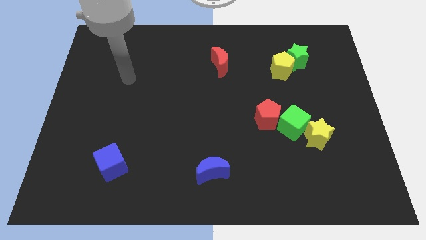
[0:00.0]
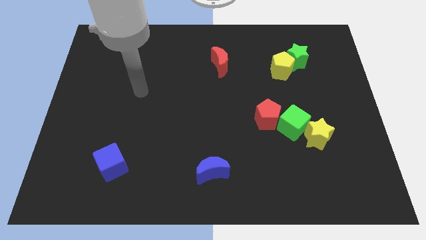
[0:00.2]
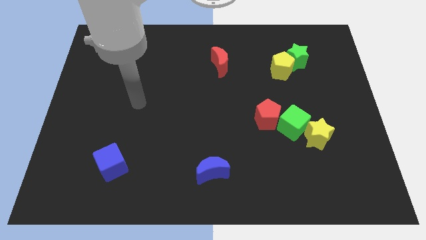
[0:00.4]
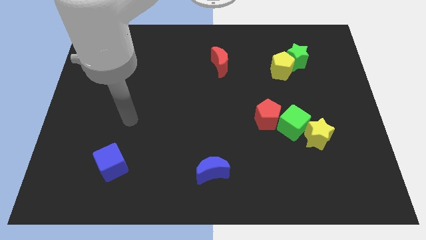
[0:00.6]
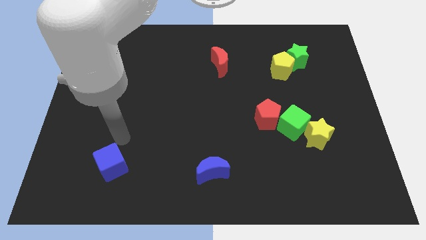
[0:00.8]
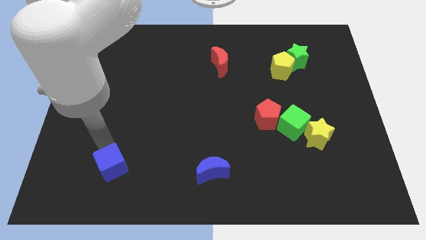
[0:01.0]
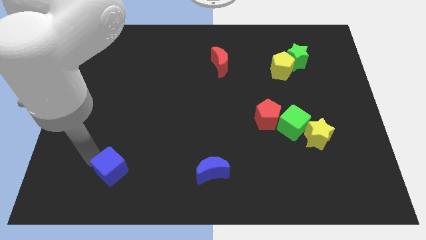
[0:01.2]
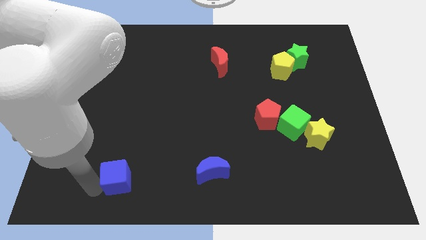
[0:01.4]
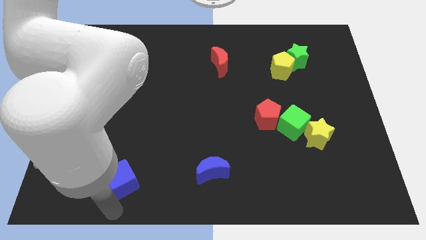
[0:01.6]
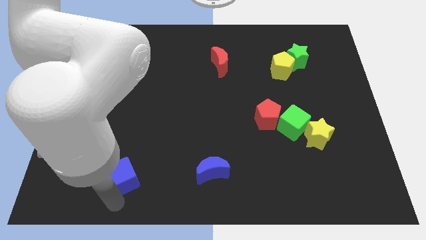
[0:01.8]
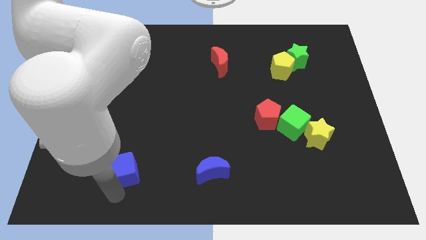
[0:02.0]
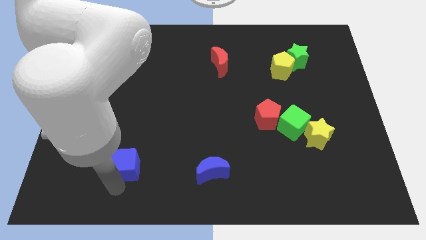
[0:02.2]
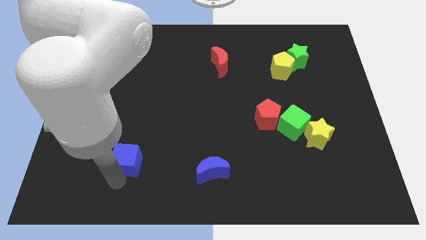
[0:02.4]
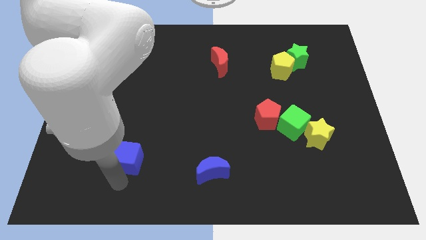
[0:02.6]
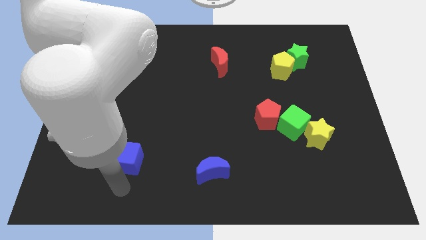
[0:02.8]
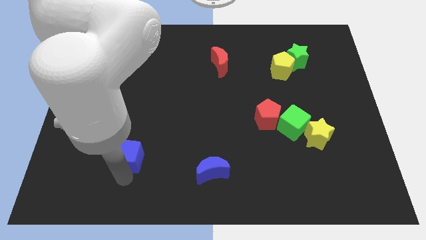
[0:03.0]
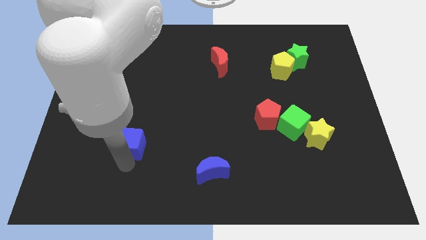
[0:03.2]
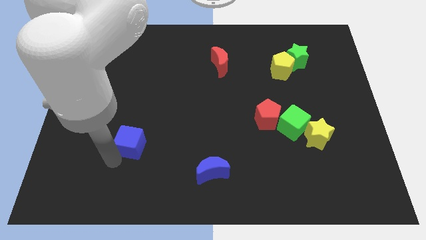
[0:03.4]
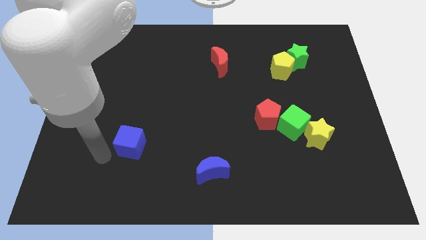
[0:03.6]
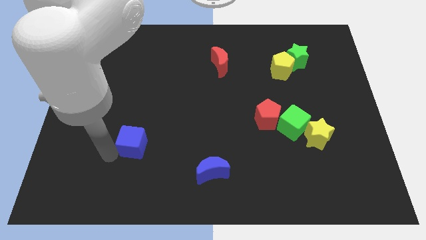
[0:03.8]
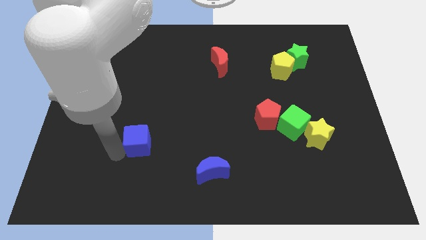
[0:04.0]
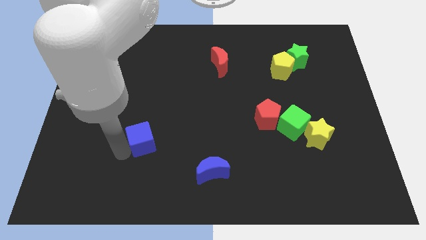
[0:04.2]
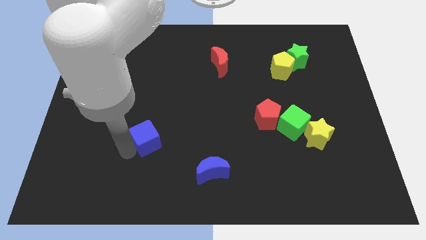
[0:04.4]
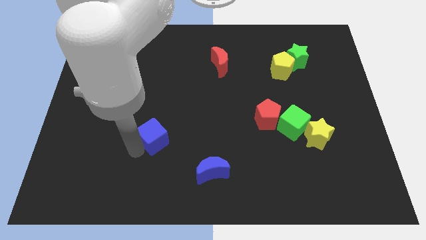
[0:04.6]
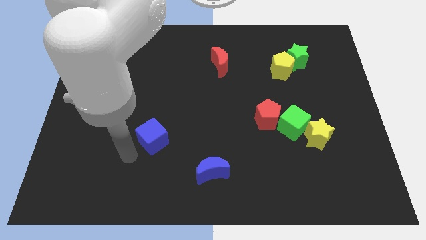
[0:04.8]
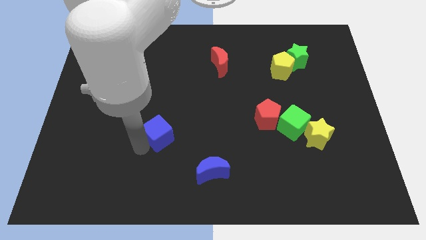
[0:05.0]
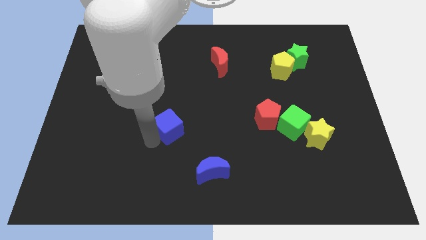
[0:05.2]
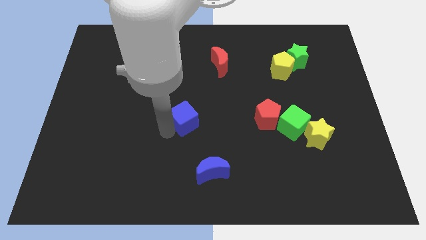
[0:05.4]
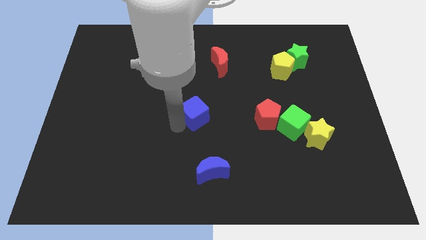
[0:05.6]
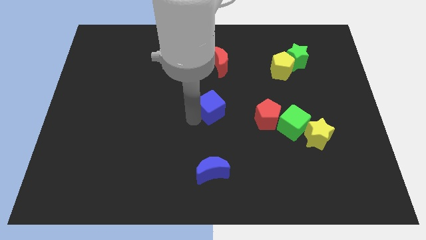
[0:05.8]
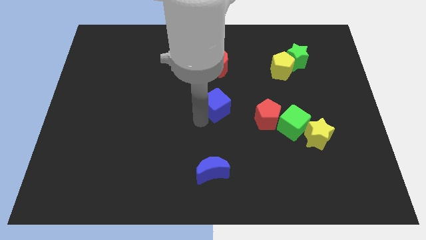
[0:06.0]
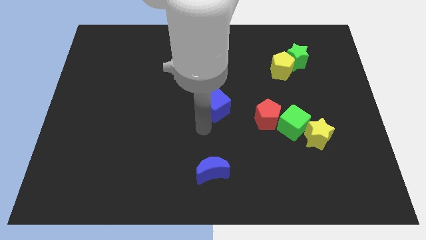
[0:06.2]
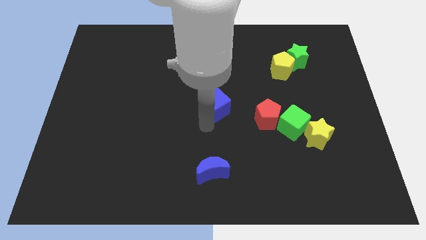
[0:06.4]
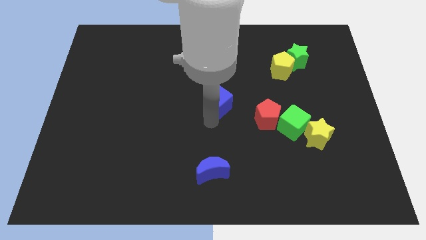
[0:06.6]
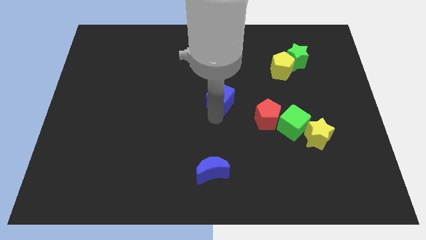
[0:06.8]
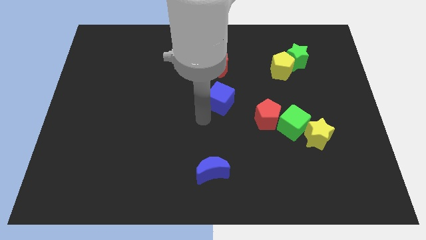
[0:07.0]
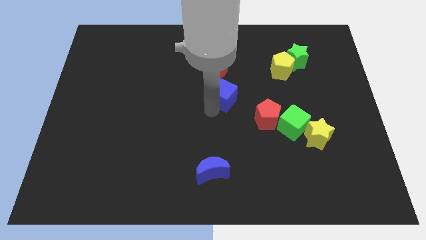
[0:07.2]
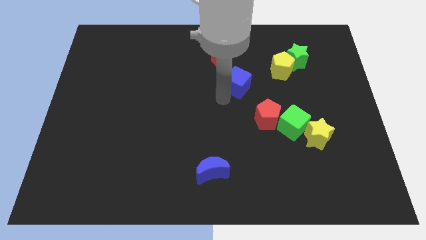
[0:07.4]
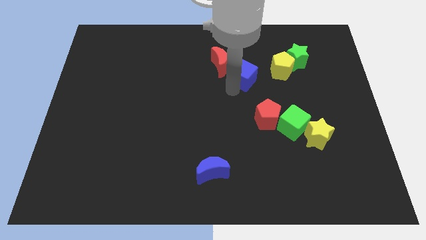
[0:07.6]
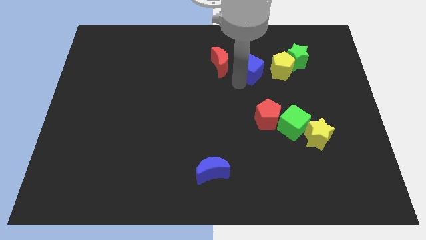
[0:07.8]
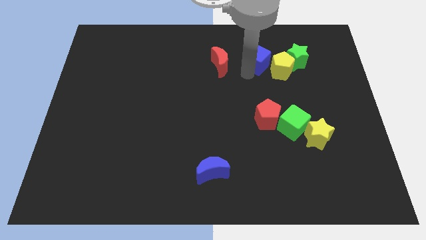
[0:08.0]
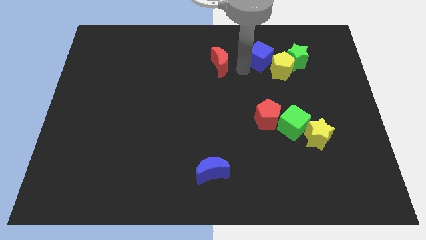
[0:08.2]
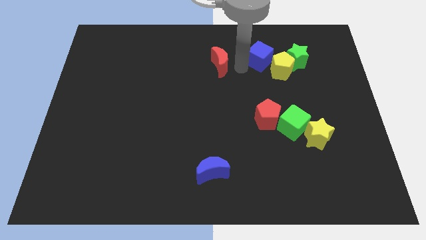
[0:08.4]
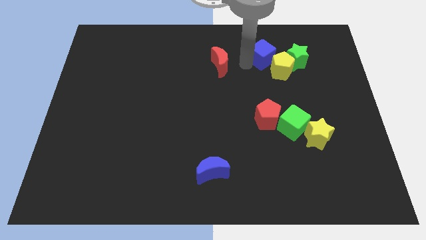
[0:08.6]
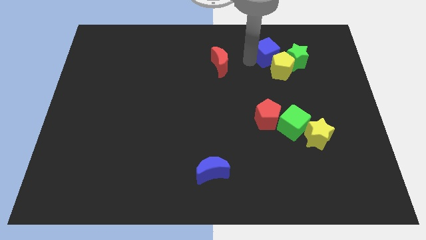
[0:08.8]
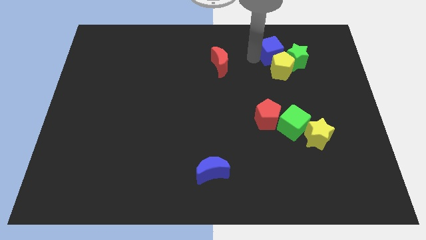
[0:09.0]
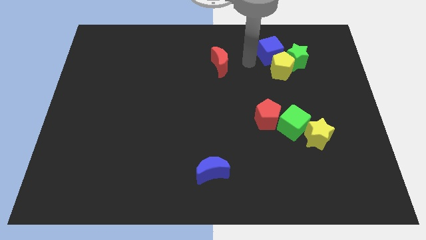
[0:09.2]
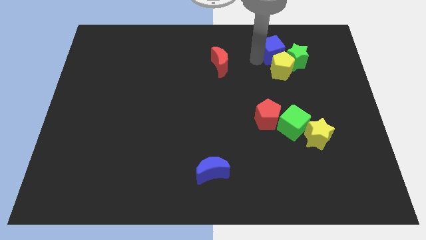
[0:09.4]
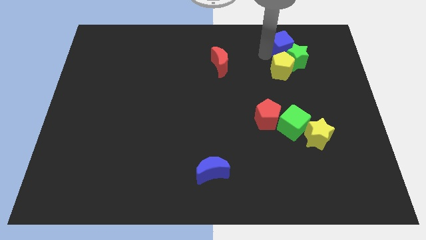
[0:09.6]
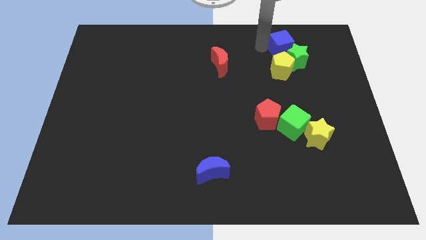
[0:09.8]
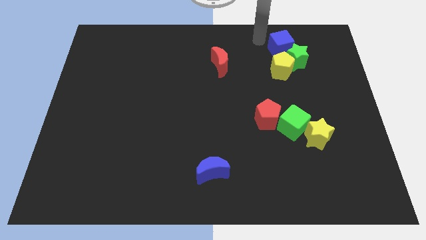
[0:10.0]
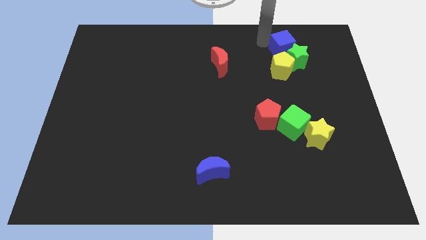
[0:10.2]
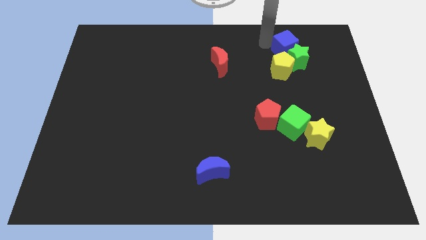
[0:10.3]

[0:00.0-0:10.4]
slide the blue cube diagonally up and to the right of the yellow pentagon

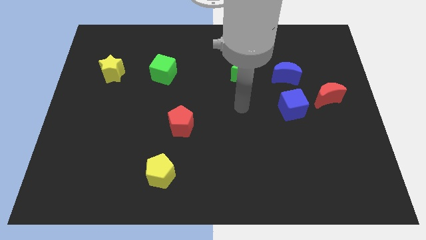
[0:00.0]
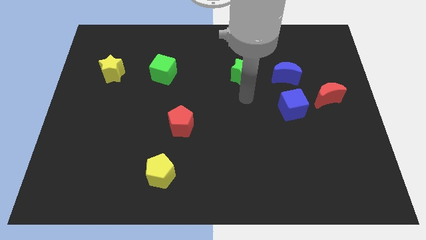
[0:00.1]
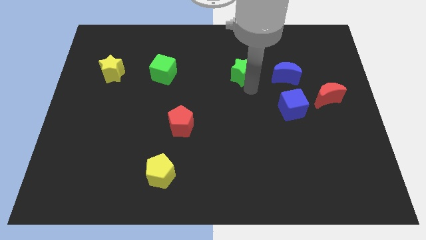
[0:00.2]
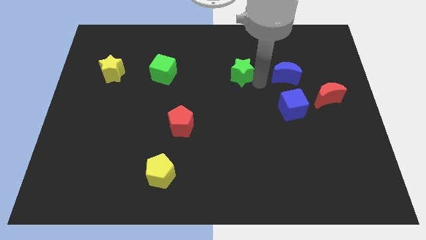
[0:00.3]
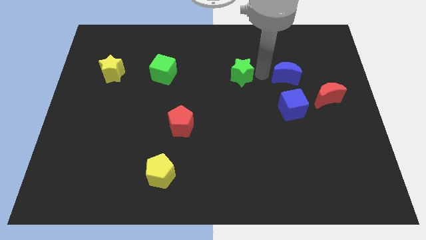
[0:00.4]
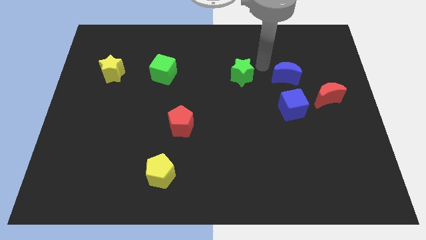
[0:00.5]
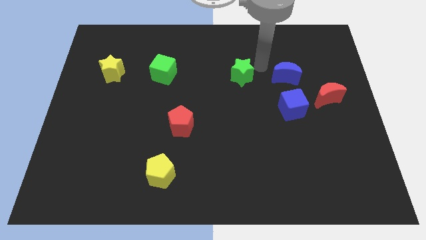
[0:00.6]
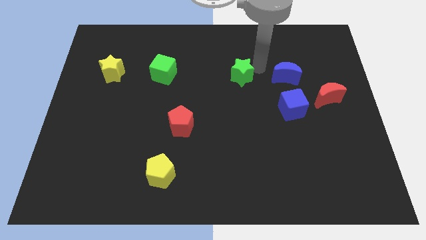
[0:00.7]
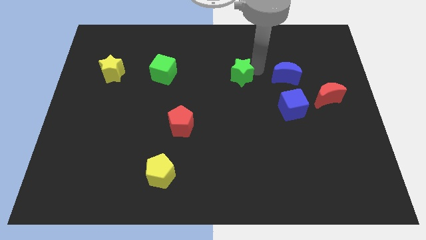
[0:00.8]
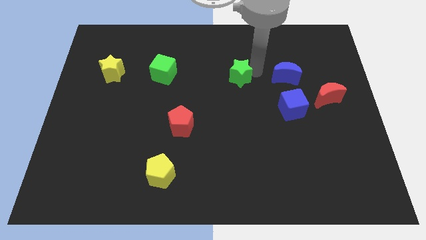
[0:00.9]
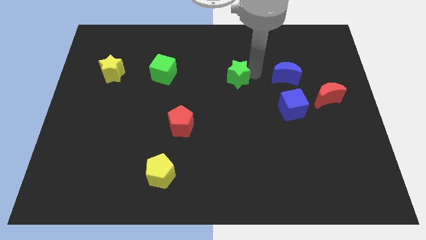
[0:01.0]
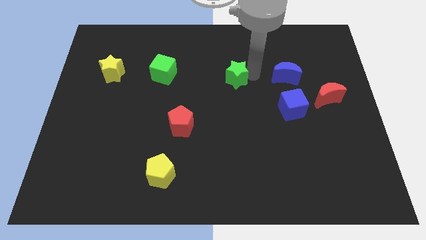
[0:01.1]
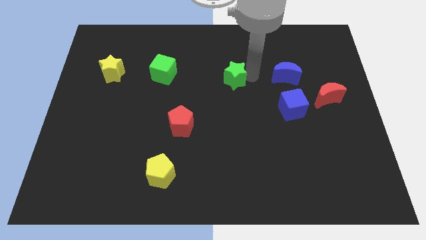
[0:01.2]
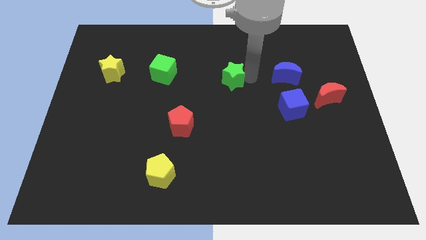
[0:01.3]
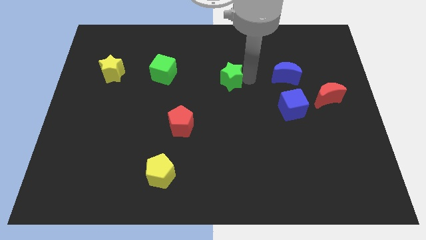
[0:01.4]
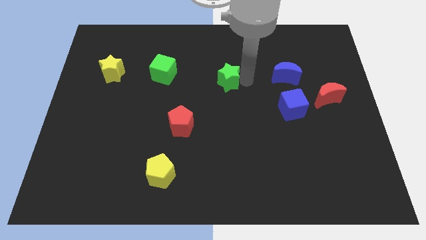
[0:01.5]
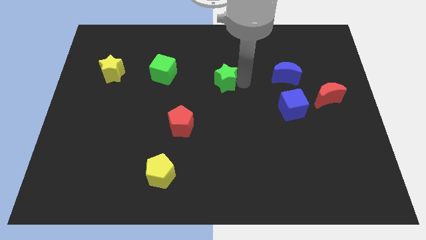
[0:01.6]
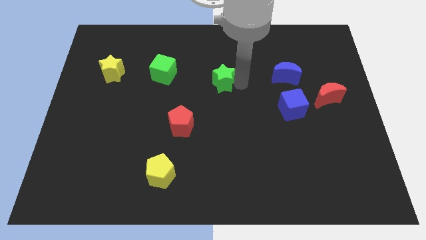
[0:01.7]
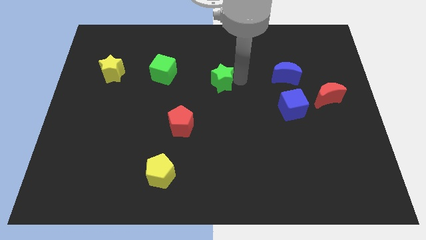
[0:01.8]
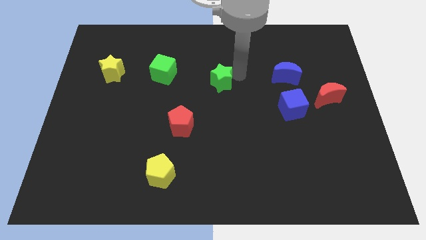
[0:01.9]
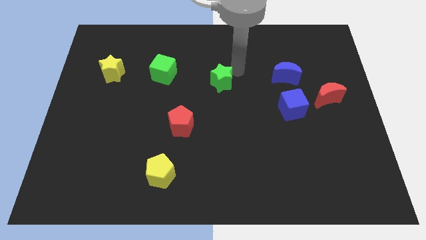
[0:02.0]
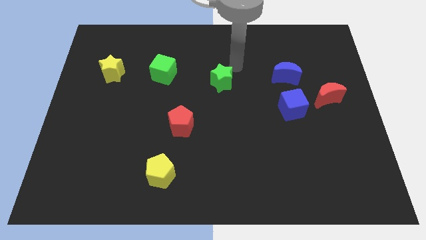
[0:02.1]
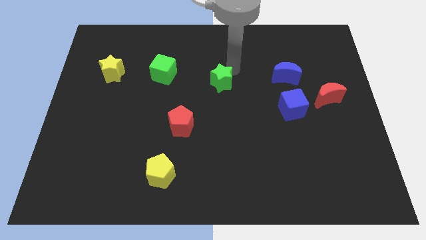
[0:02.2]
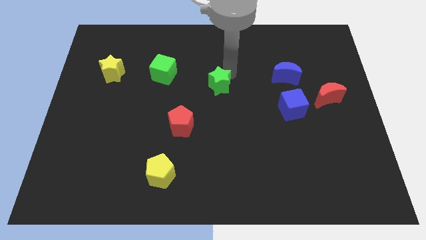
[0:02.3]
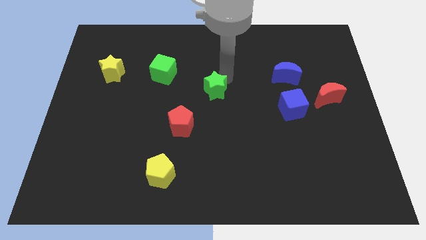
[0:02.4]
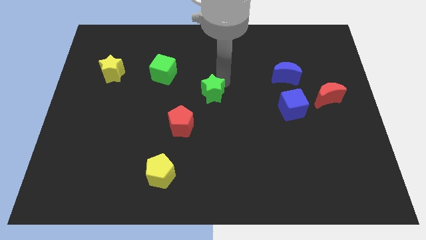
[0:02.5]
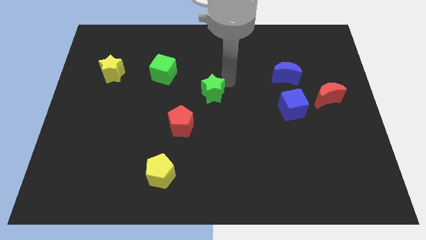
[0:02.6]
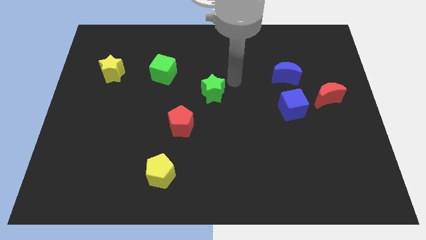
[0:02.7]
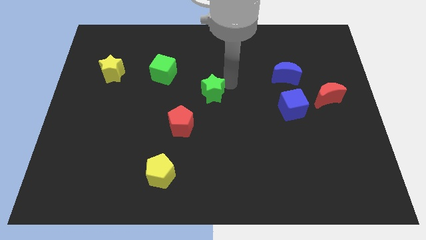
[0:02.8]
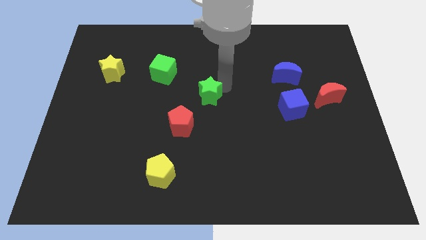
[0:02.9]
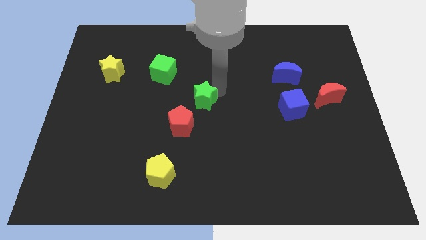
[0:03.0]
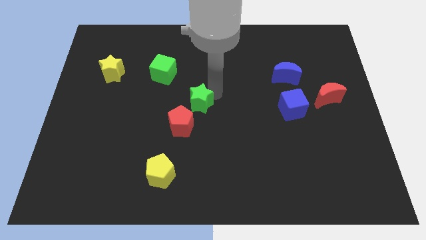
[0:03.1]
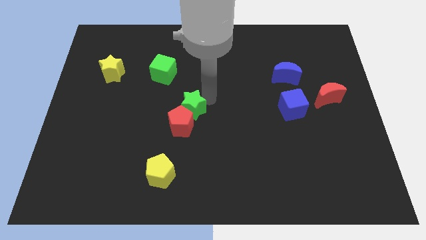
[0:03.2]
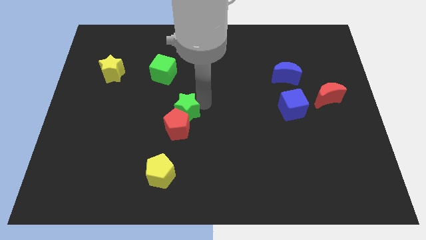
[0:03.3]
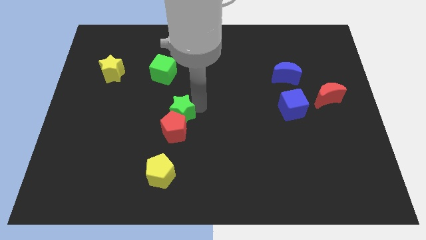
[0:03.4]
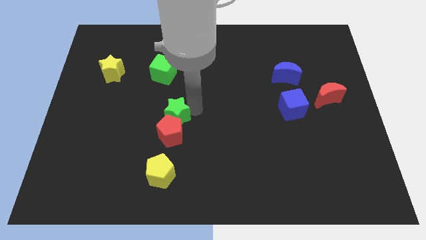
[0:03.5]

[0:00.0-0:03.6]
slide the green star to the top of the yellow pentagon
